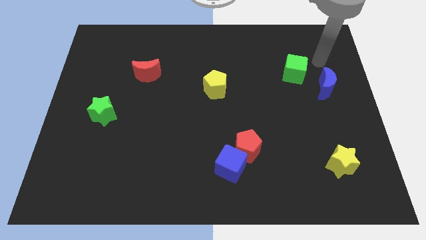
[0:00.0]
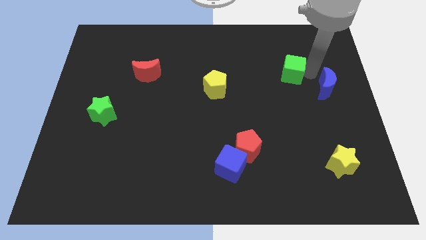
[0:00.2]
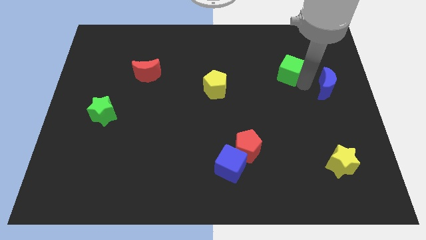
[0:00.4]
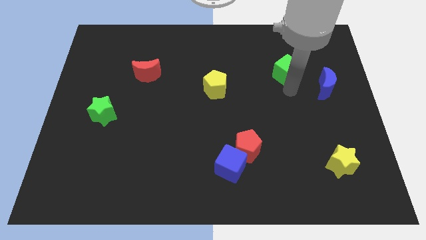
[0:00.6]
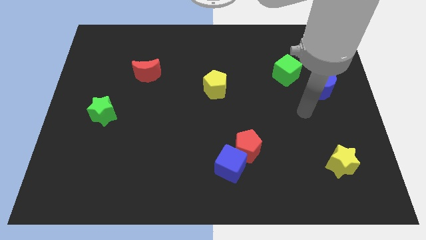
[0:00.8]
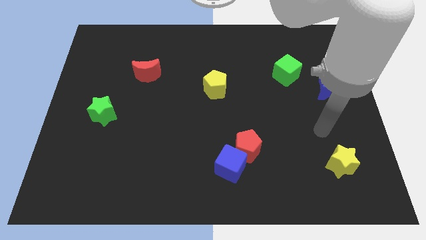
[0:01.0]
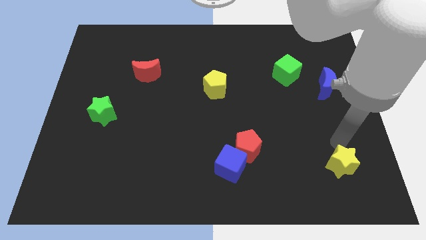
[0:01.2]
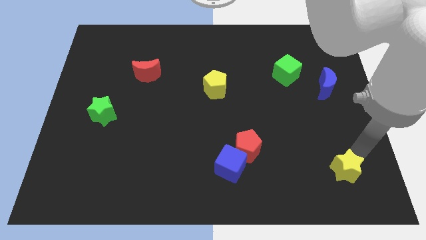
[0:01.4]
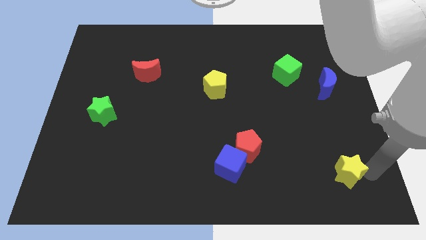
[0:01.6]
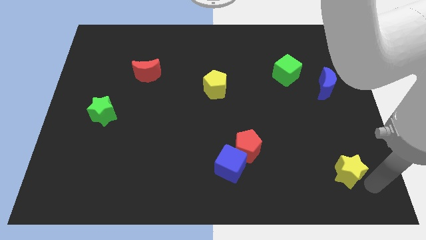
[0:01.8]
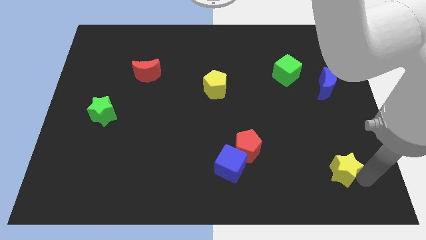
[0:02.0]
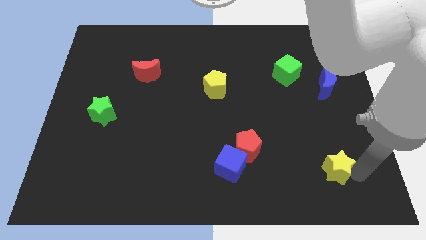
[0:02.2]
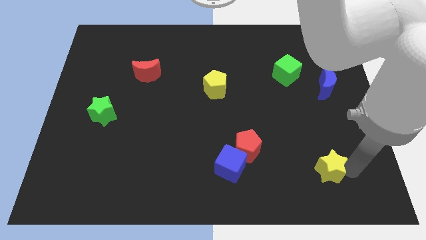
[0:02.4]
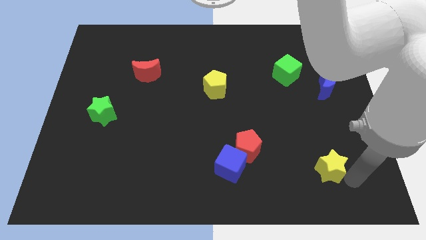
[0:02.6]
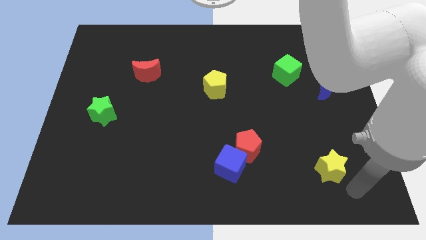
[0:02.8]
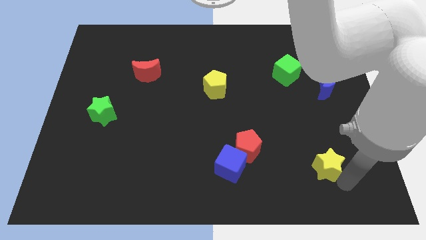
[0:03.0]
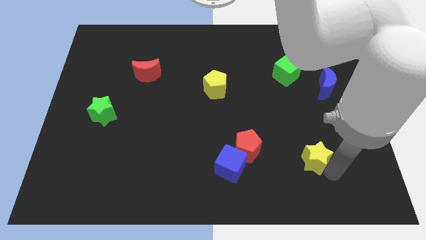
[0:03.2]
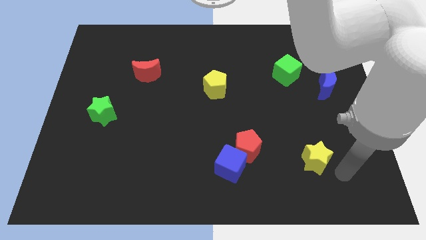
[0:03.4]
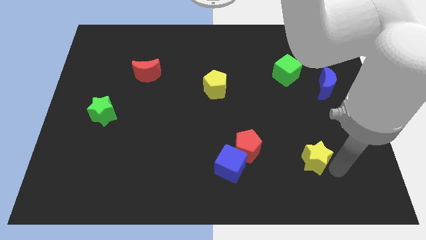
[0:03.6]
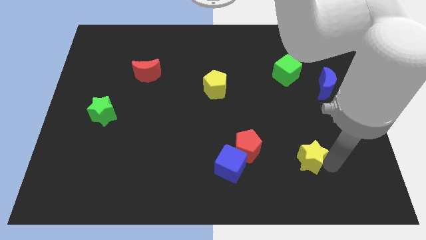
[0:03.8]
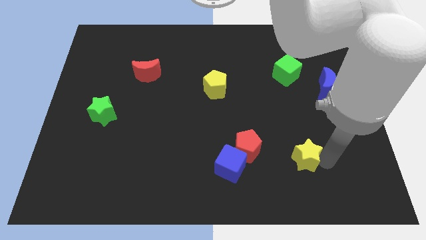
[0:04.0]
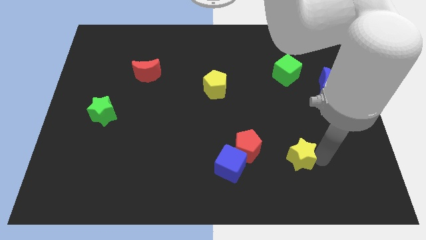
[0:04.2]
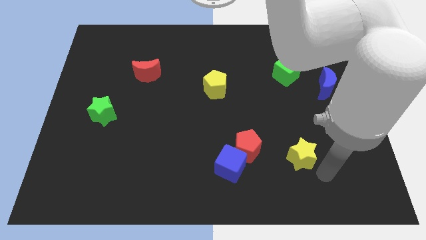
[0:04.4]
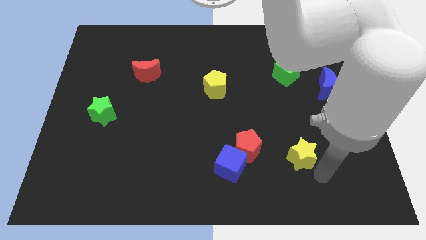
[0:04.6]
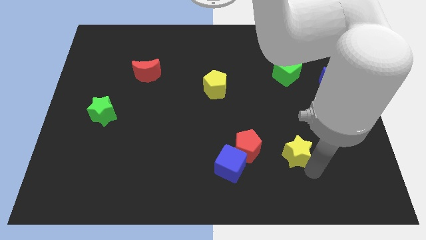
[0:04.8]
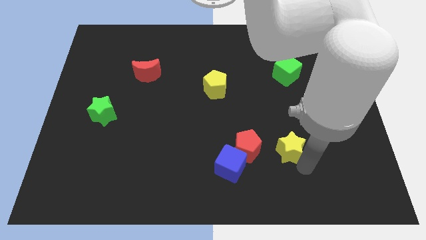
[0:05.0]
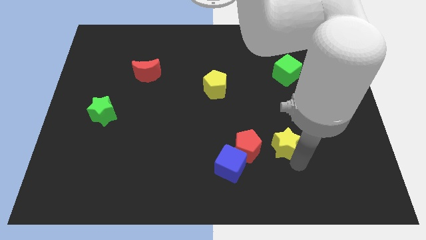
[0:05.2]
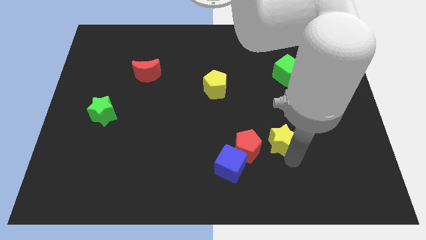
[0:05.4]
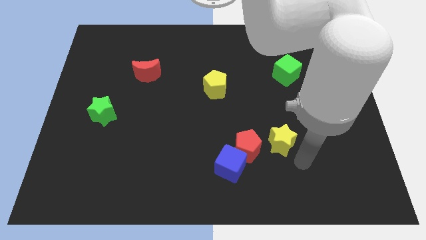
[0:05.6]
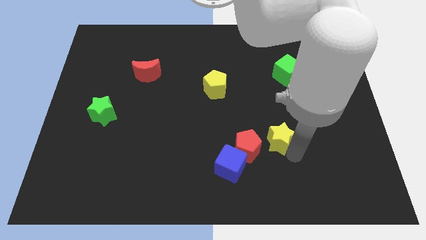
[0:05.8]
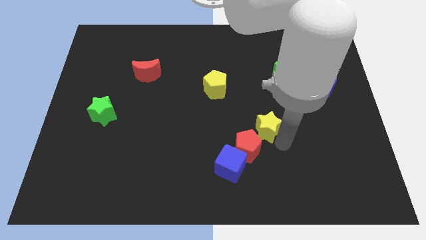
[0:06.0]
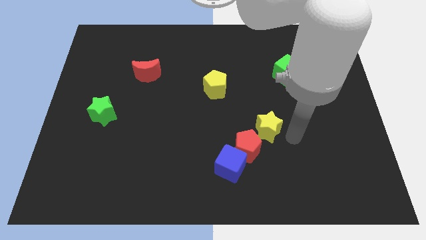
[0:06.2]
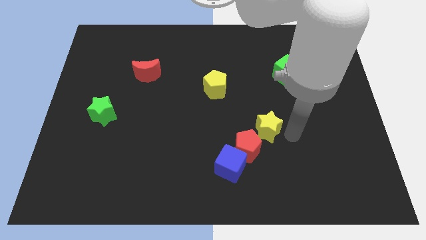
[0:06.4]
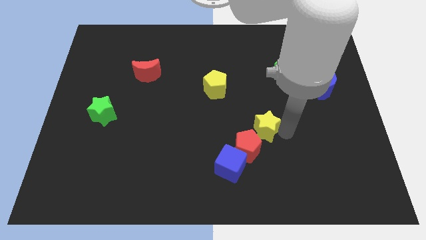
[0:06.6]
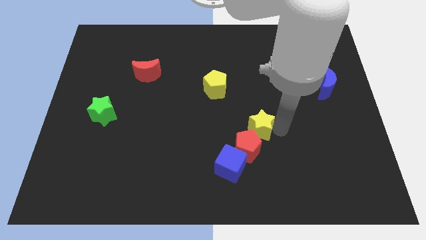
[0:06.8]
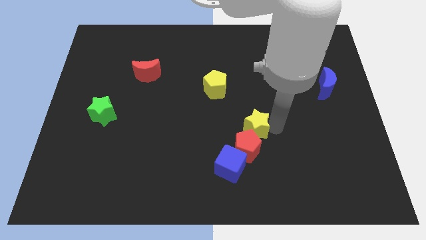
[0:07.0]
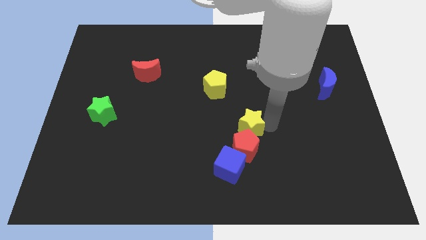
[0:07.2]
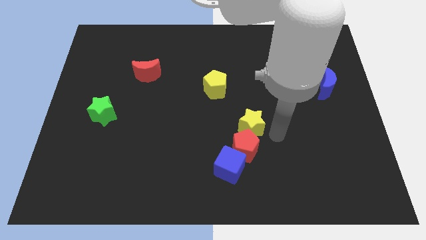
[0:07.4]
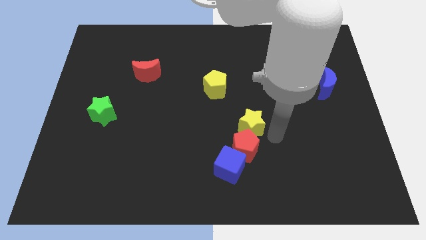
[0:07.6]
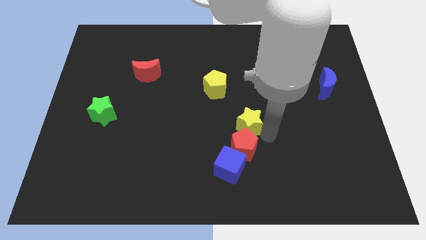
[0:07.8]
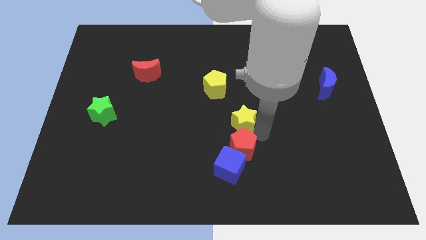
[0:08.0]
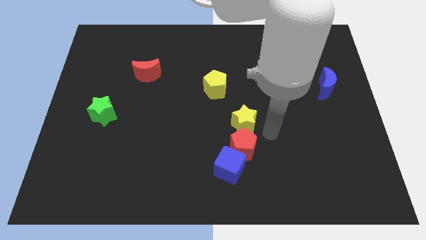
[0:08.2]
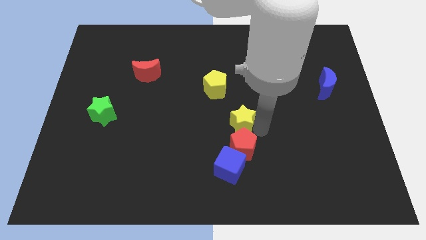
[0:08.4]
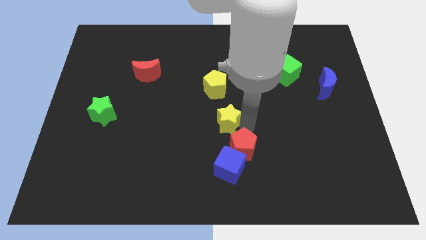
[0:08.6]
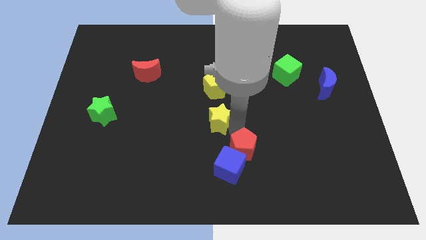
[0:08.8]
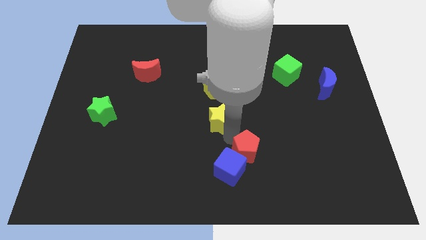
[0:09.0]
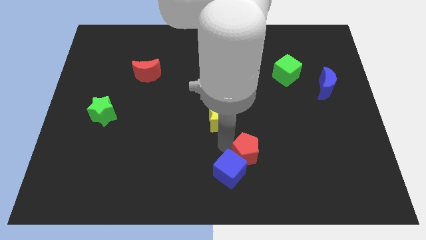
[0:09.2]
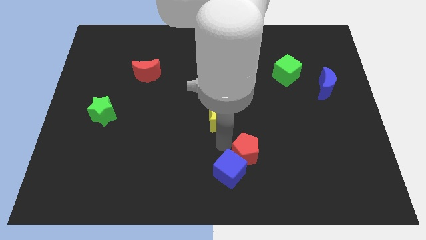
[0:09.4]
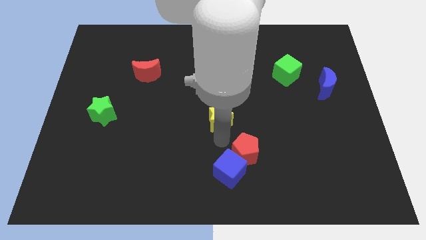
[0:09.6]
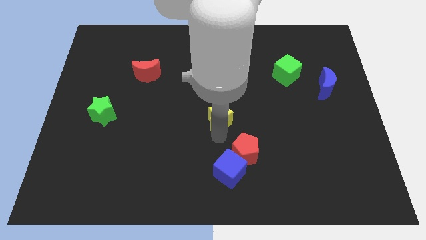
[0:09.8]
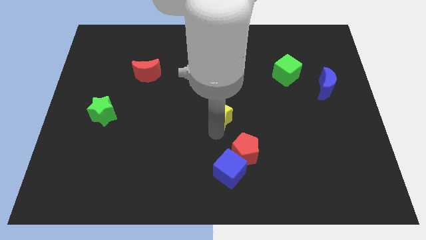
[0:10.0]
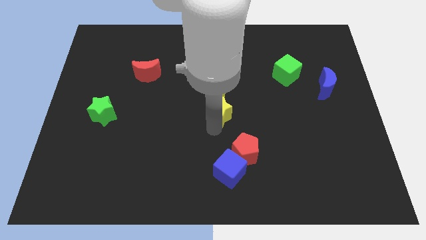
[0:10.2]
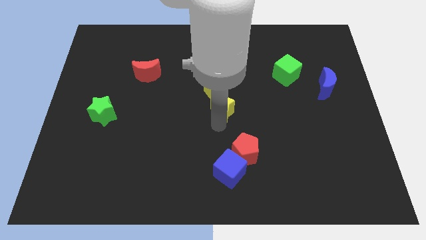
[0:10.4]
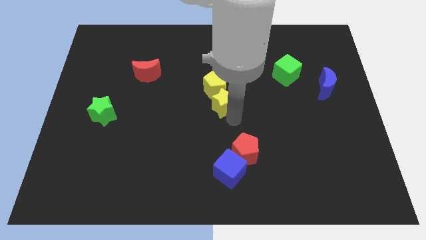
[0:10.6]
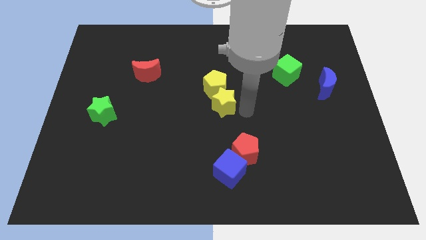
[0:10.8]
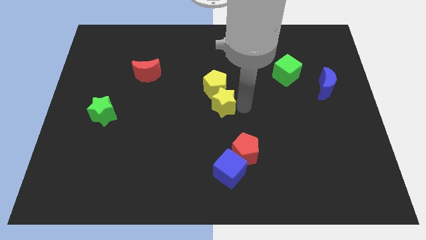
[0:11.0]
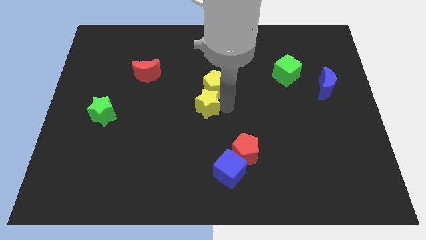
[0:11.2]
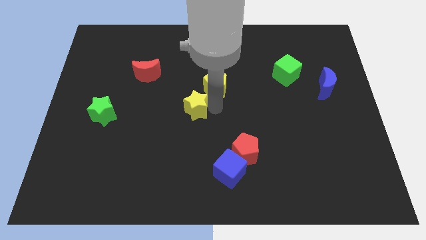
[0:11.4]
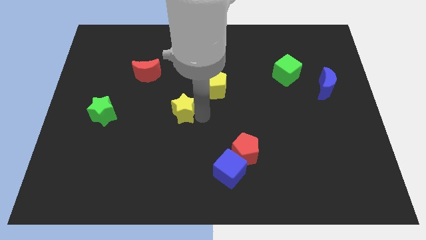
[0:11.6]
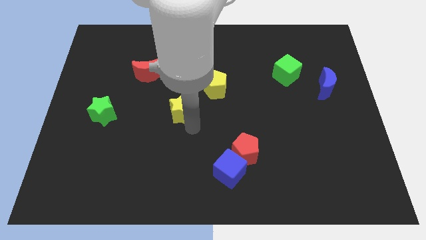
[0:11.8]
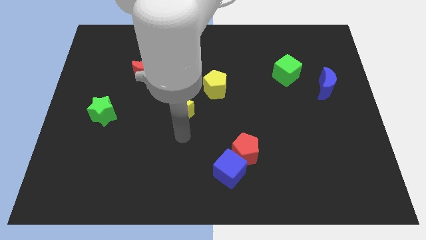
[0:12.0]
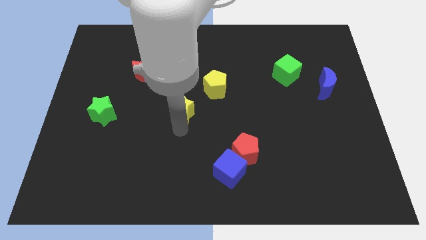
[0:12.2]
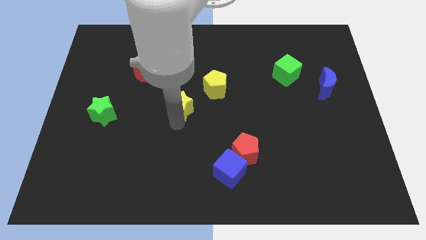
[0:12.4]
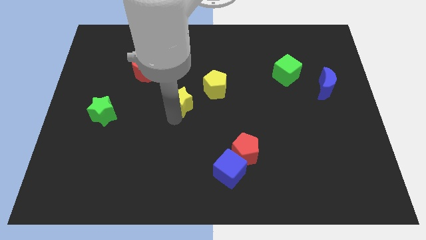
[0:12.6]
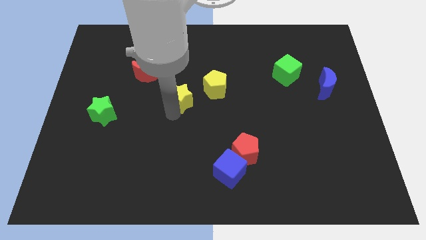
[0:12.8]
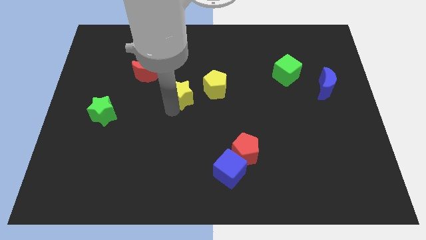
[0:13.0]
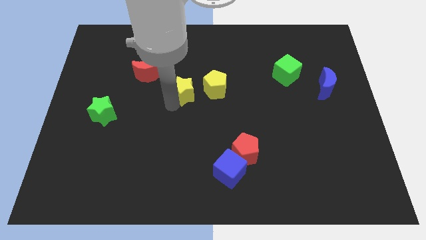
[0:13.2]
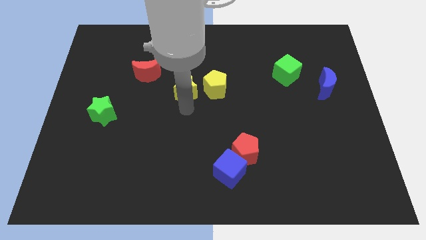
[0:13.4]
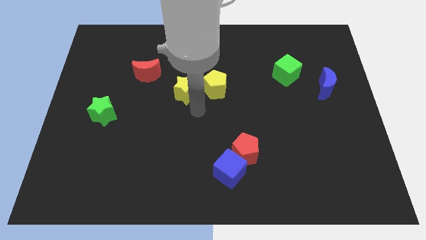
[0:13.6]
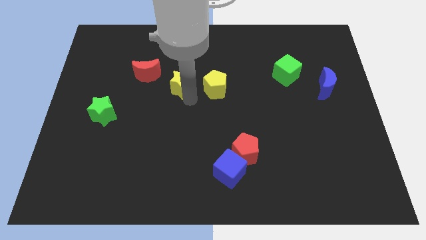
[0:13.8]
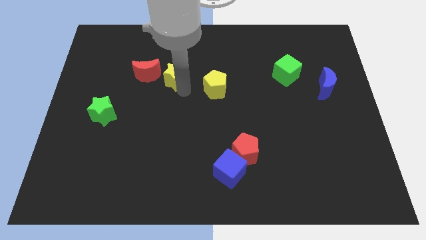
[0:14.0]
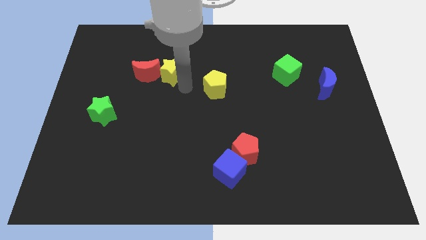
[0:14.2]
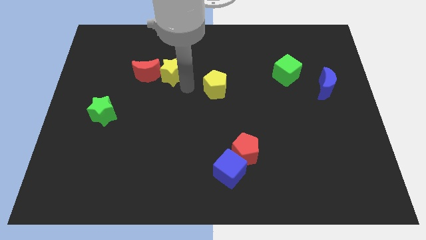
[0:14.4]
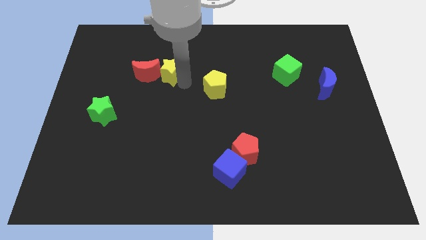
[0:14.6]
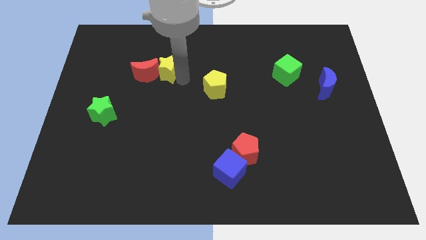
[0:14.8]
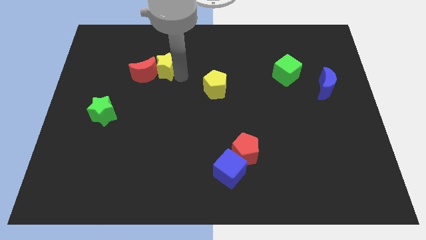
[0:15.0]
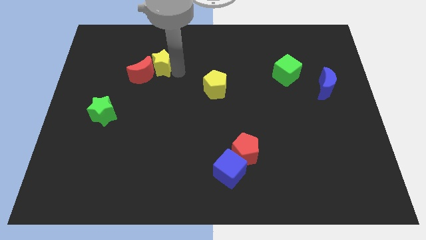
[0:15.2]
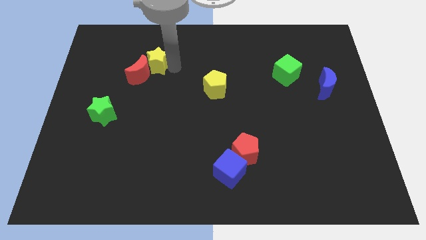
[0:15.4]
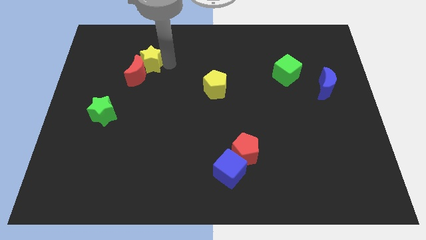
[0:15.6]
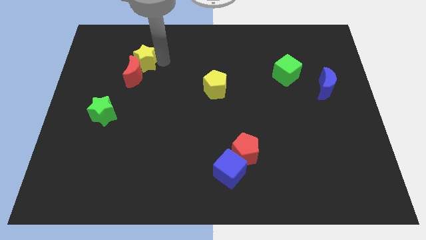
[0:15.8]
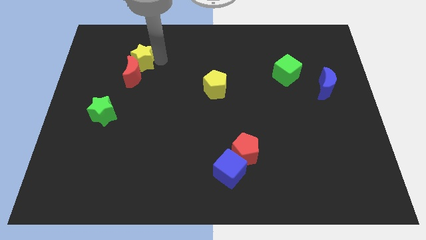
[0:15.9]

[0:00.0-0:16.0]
slide the yellow star to the top left of the red moon
